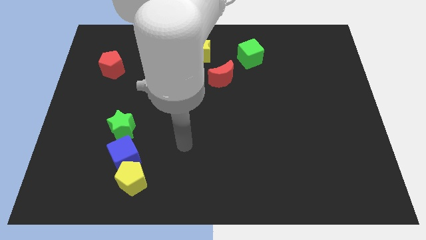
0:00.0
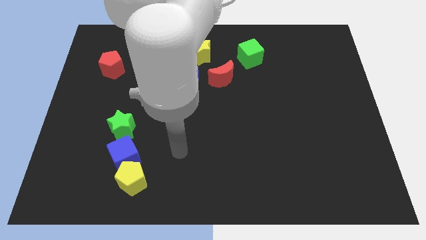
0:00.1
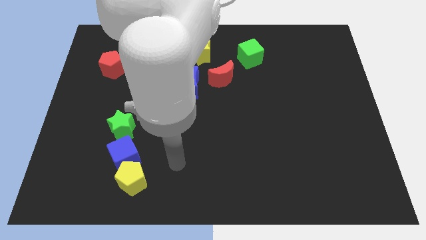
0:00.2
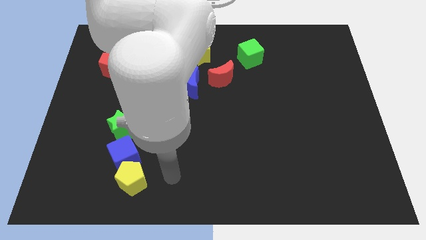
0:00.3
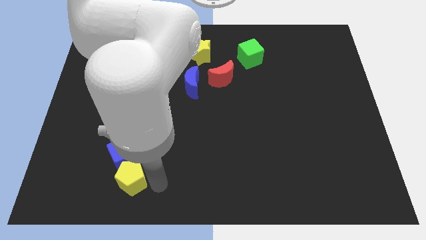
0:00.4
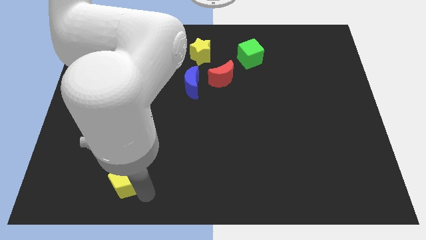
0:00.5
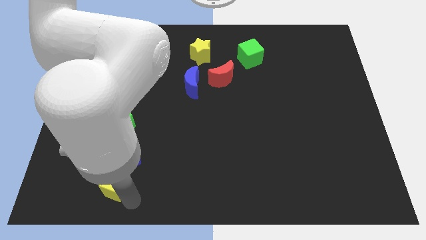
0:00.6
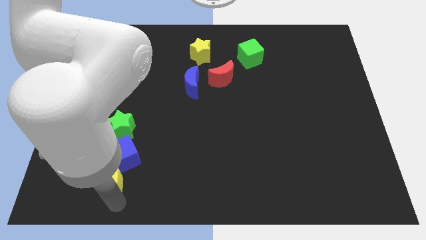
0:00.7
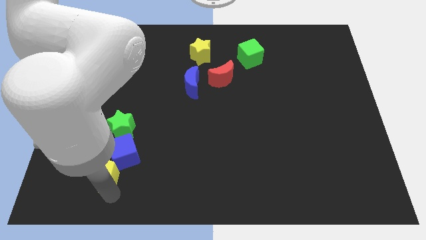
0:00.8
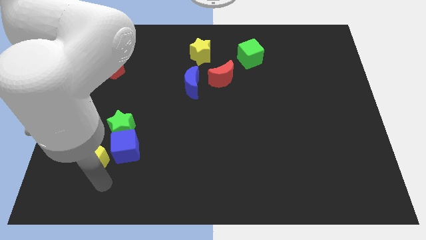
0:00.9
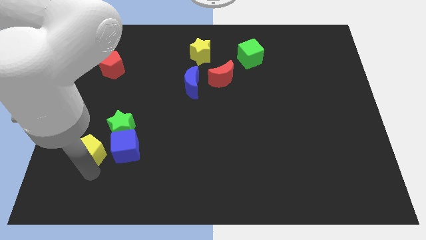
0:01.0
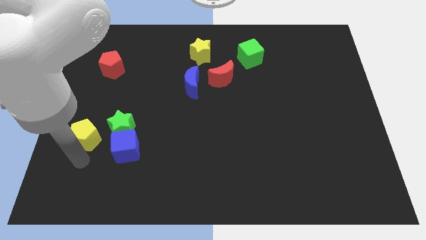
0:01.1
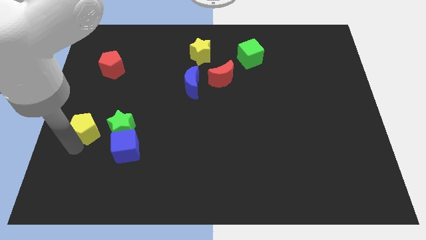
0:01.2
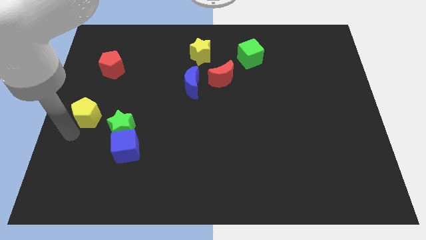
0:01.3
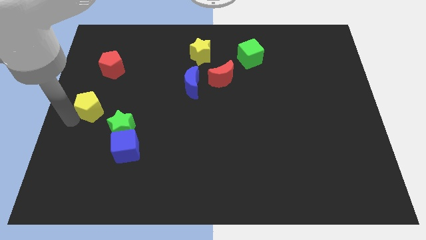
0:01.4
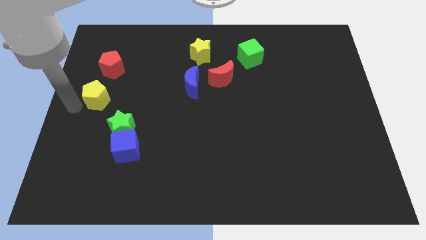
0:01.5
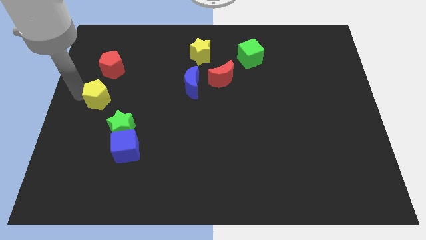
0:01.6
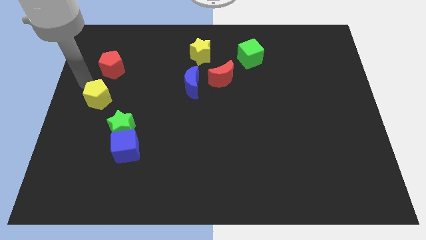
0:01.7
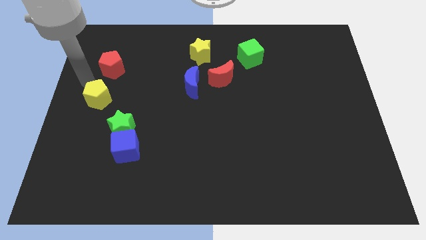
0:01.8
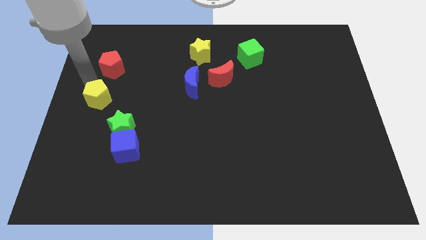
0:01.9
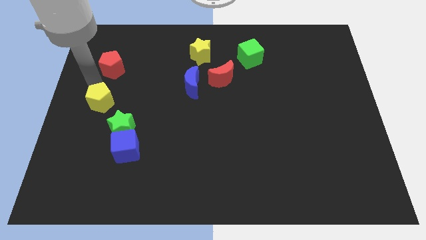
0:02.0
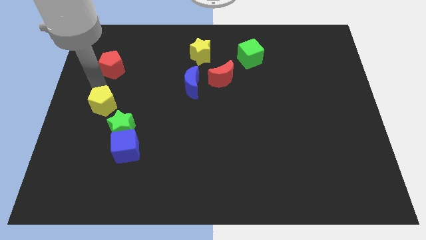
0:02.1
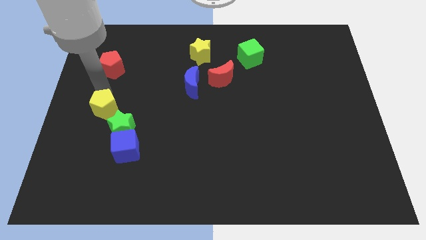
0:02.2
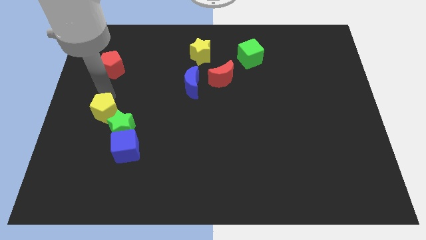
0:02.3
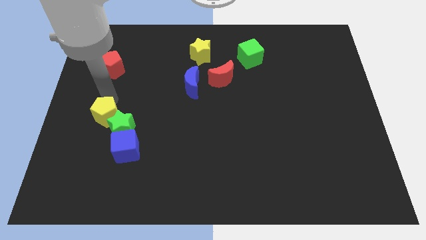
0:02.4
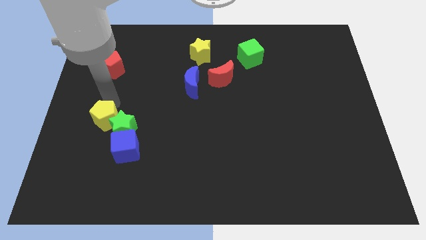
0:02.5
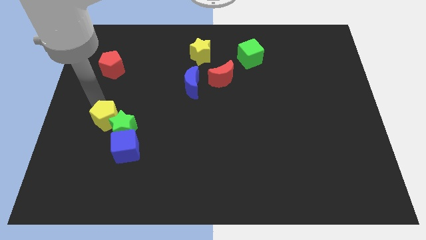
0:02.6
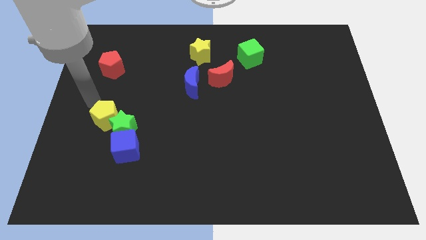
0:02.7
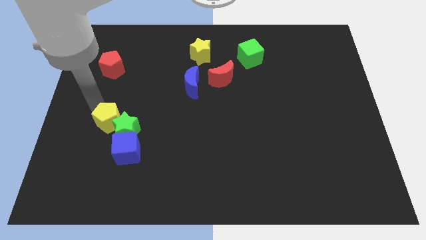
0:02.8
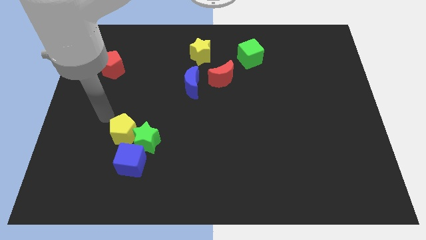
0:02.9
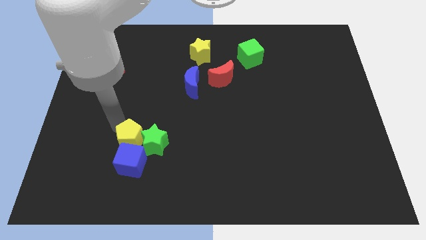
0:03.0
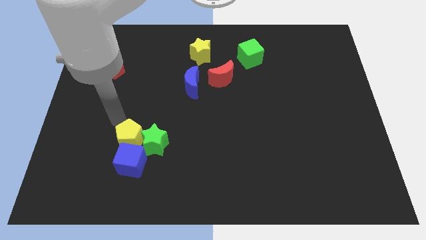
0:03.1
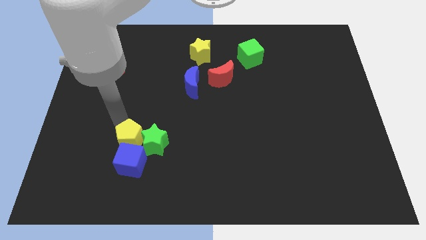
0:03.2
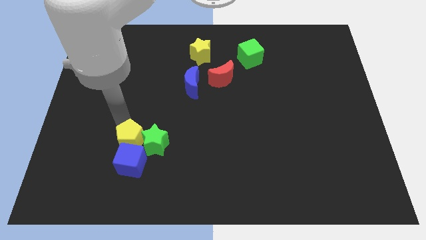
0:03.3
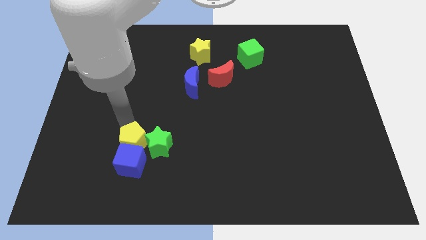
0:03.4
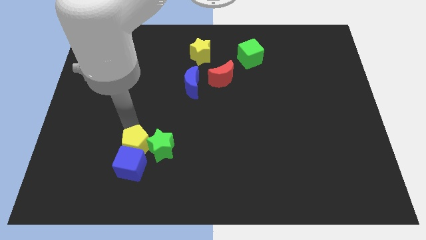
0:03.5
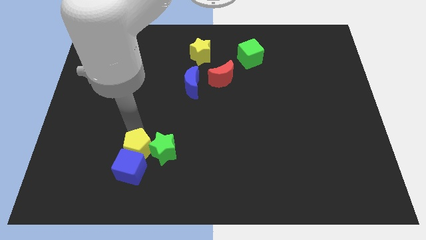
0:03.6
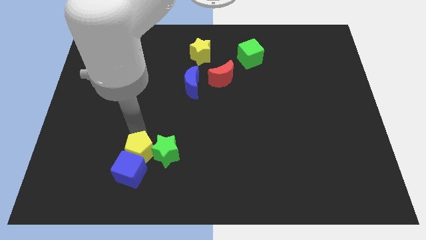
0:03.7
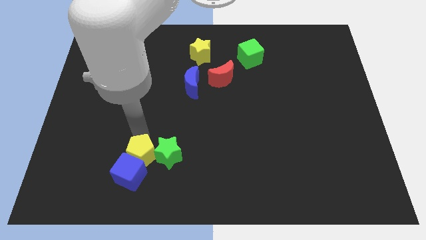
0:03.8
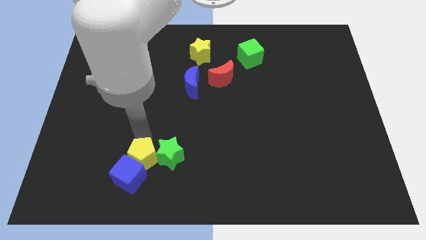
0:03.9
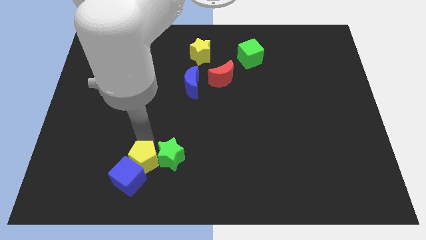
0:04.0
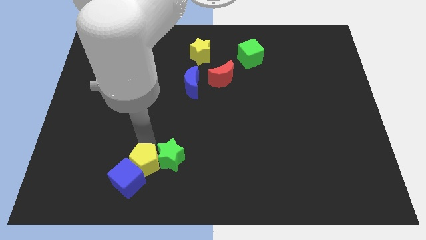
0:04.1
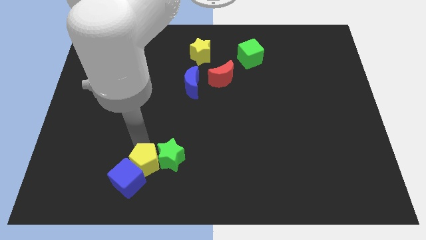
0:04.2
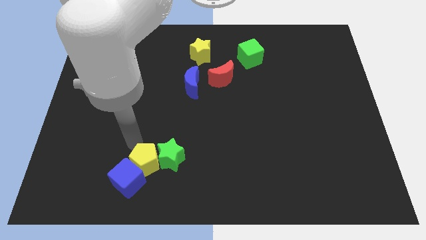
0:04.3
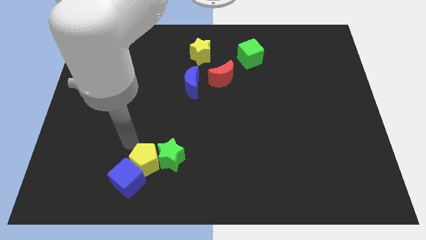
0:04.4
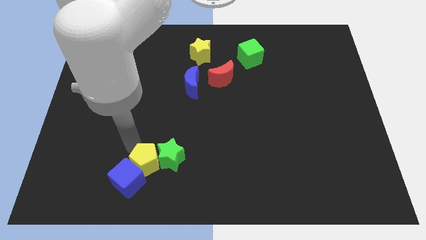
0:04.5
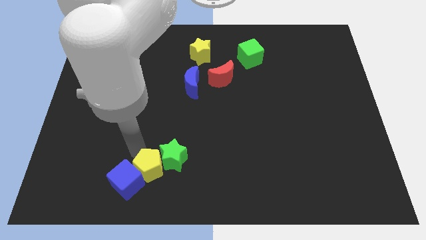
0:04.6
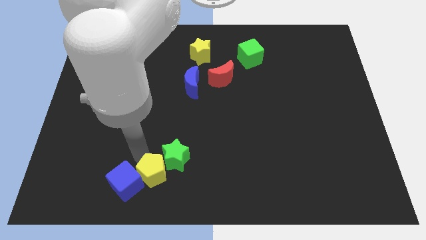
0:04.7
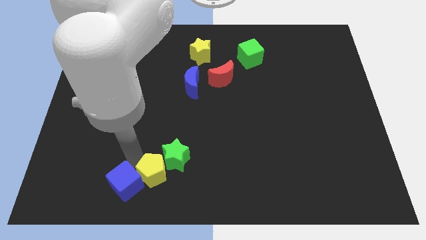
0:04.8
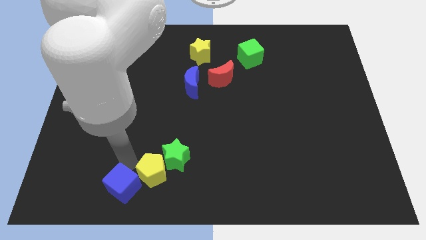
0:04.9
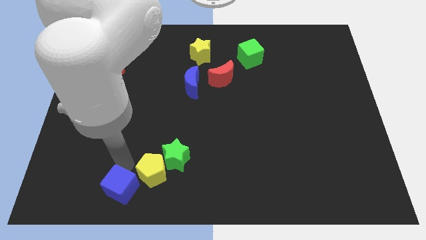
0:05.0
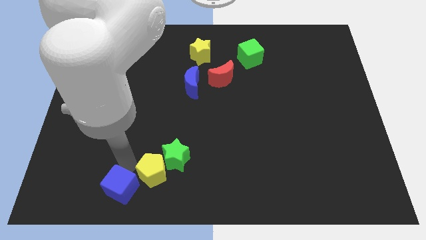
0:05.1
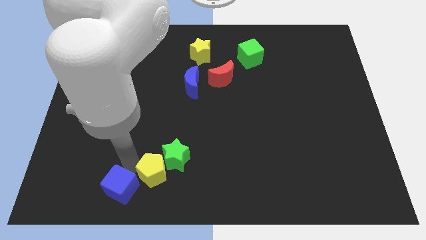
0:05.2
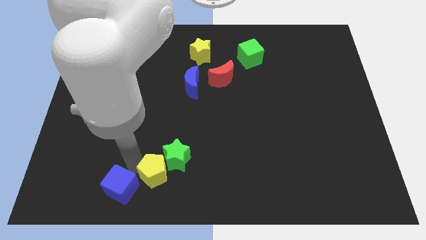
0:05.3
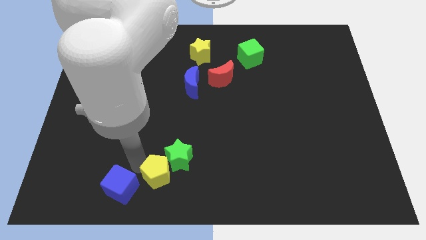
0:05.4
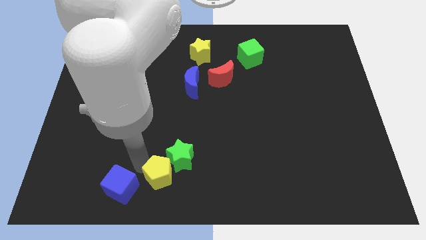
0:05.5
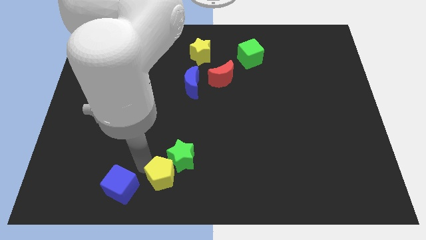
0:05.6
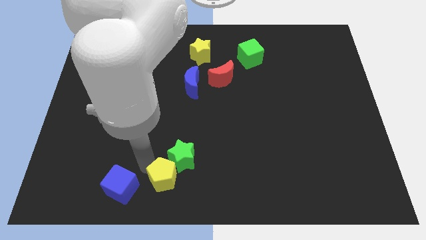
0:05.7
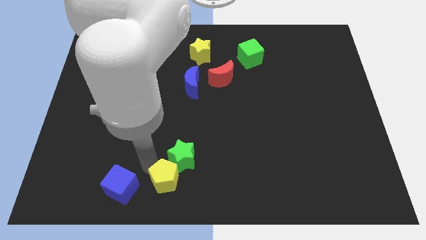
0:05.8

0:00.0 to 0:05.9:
slide the yellow pentagon to the right a bit

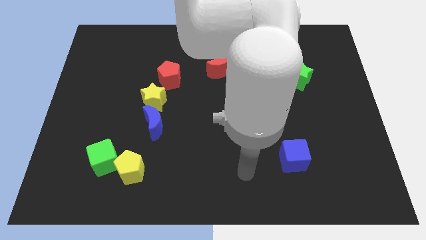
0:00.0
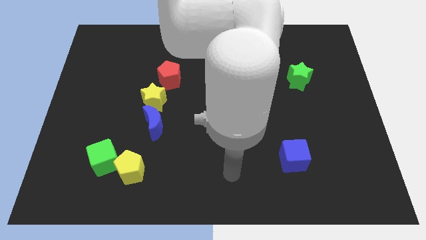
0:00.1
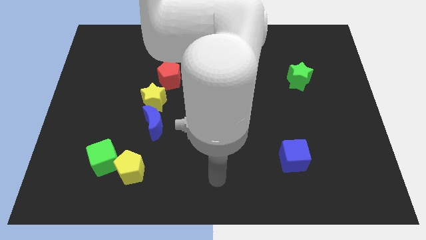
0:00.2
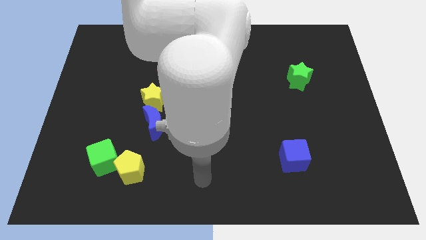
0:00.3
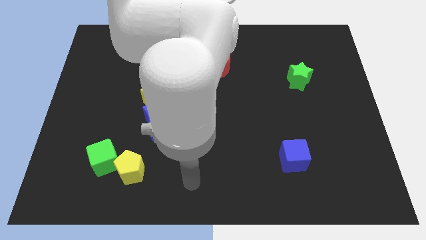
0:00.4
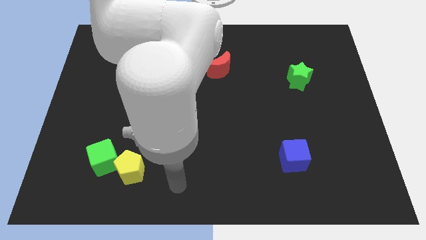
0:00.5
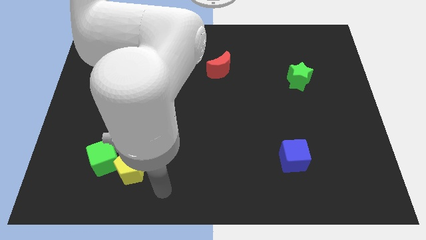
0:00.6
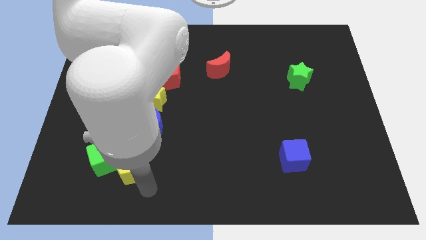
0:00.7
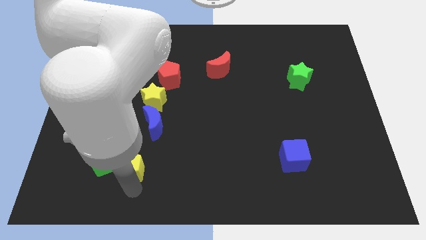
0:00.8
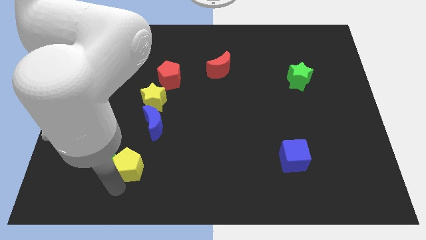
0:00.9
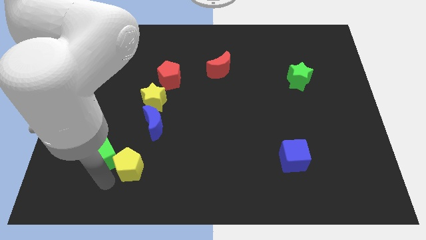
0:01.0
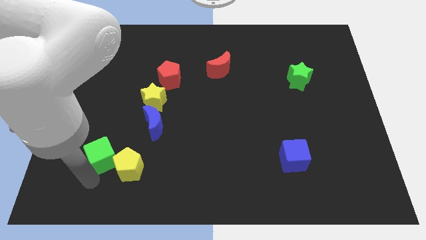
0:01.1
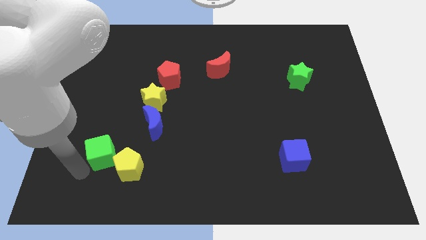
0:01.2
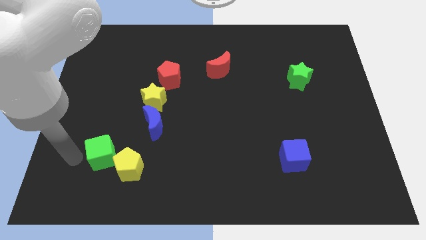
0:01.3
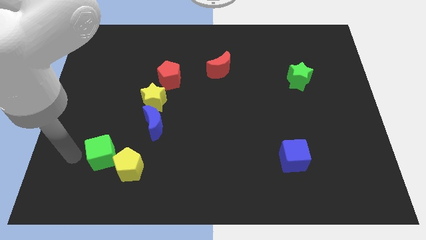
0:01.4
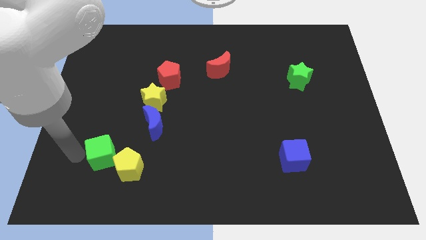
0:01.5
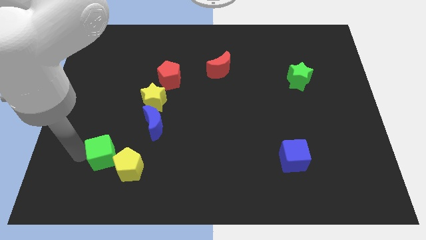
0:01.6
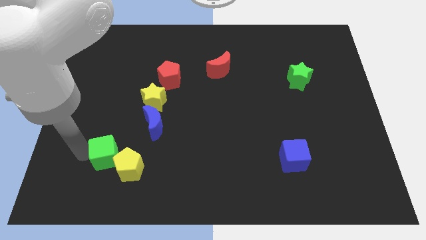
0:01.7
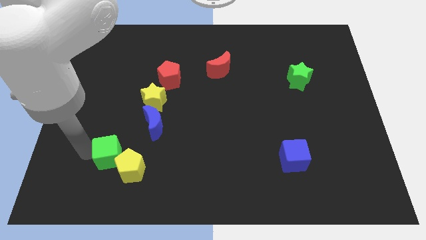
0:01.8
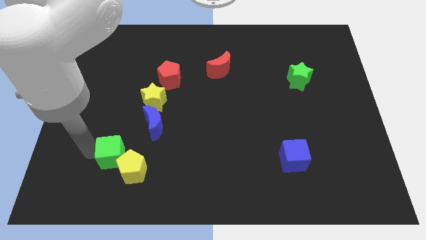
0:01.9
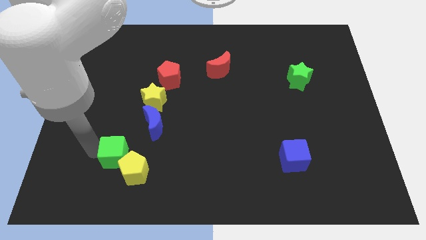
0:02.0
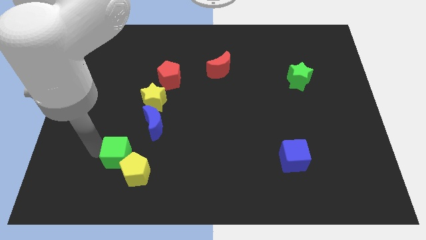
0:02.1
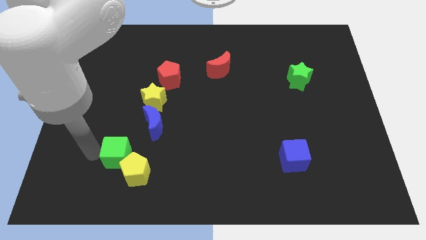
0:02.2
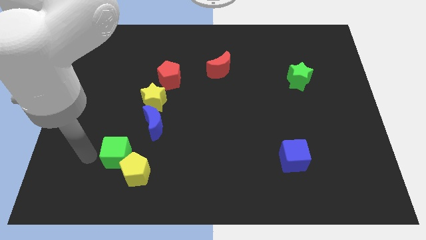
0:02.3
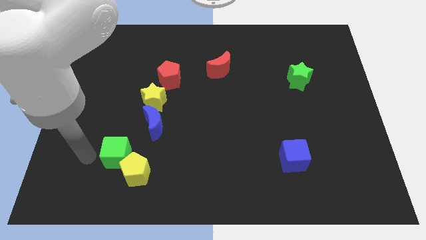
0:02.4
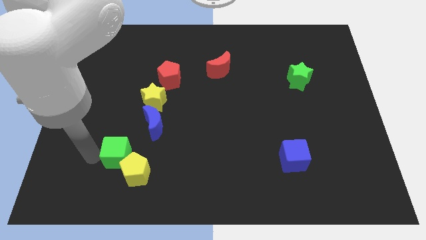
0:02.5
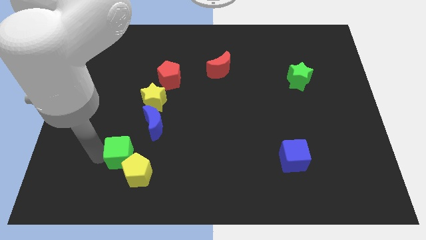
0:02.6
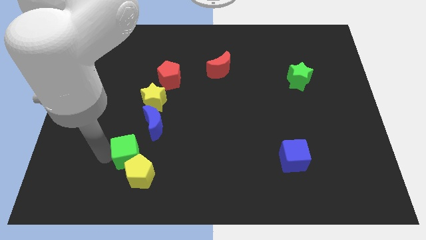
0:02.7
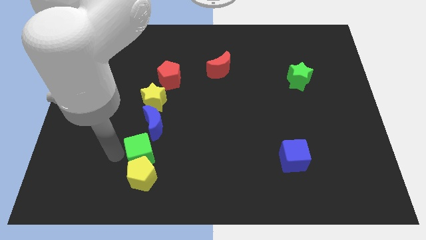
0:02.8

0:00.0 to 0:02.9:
push the green cube a bit to the right
